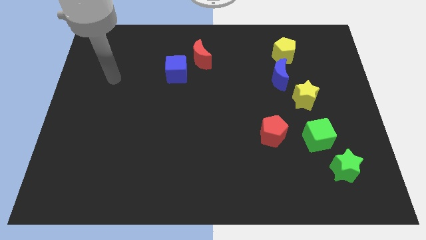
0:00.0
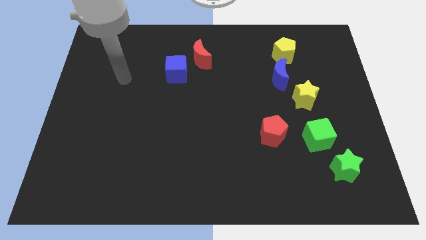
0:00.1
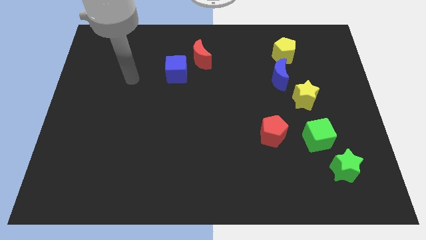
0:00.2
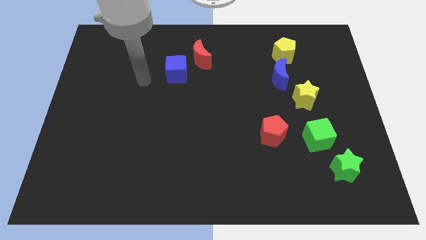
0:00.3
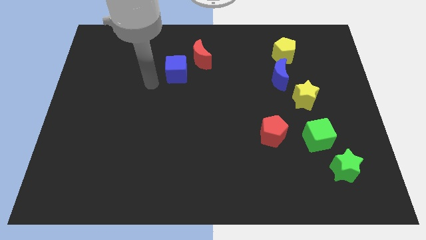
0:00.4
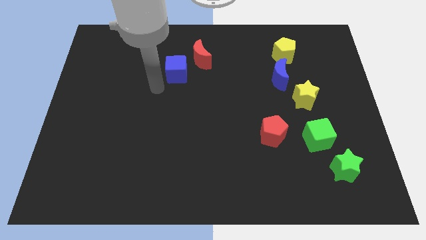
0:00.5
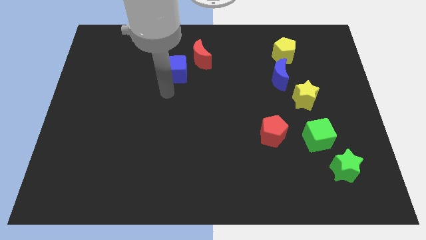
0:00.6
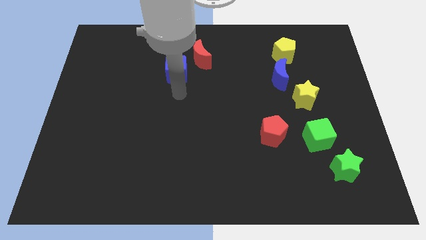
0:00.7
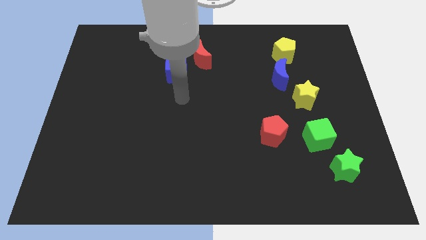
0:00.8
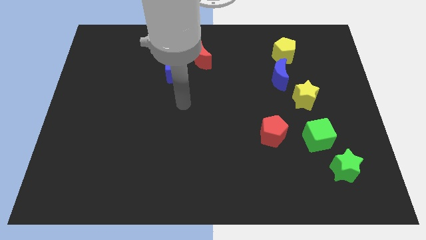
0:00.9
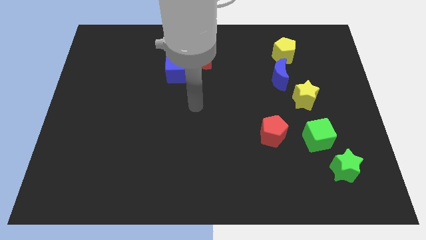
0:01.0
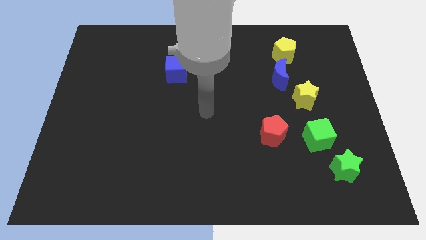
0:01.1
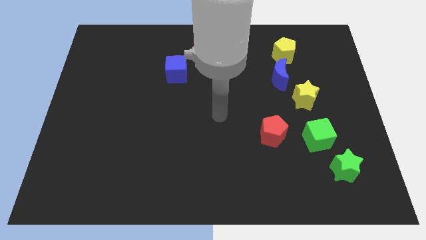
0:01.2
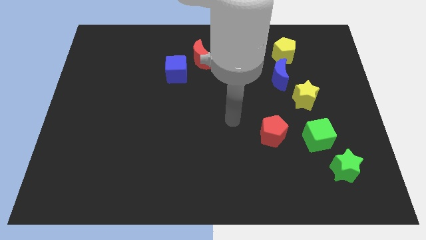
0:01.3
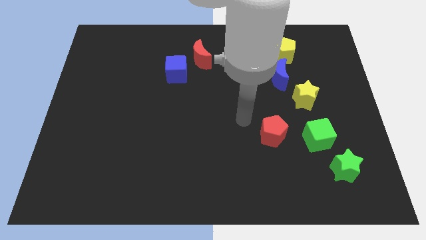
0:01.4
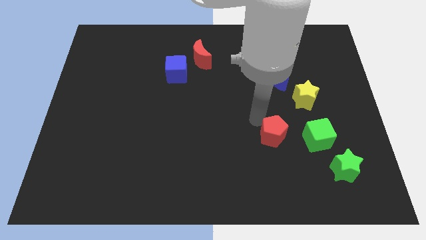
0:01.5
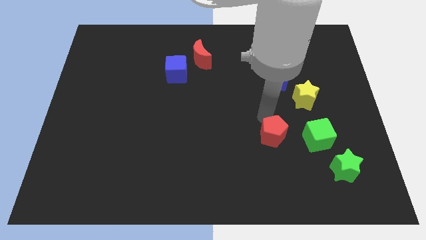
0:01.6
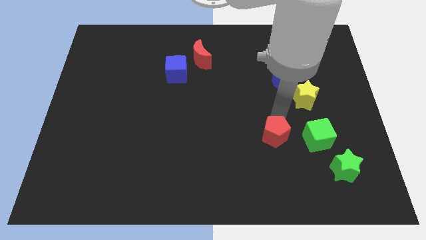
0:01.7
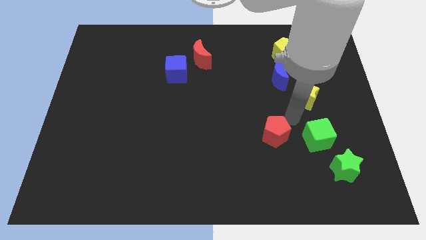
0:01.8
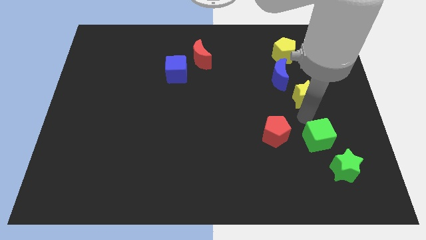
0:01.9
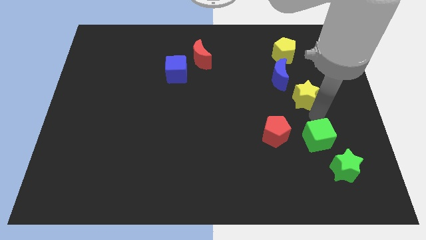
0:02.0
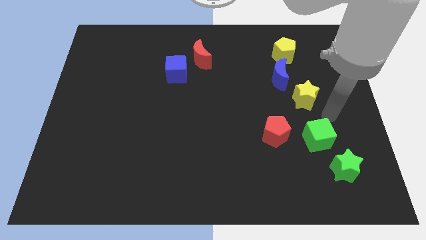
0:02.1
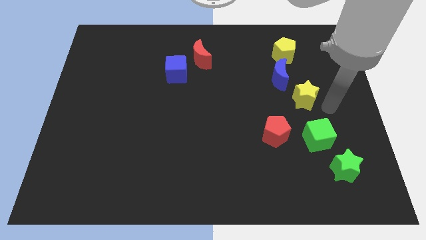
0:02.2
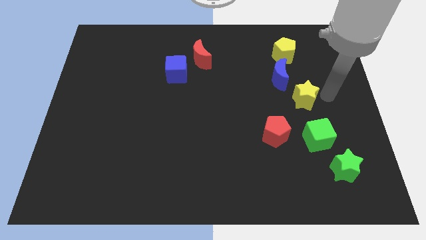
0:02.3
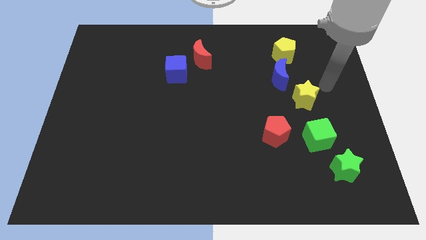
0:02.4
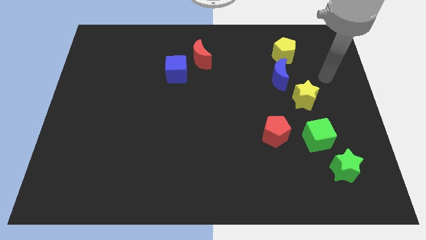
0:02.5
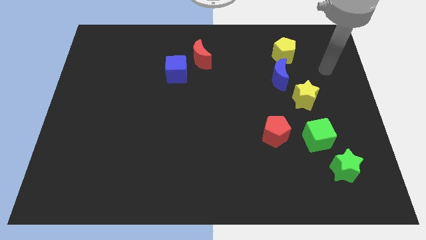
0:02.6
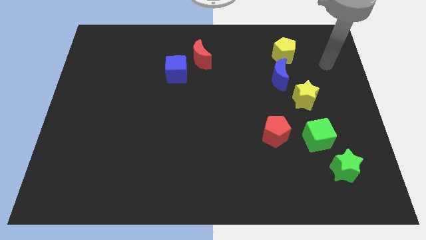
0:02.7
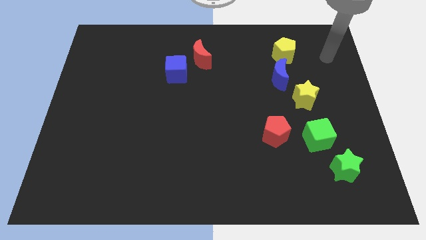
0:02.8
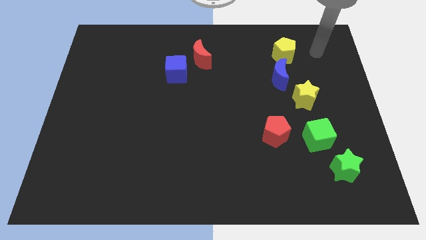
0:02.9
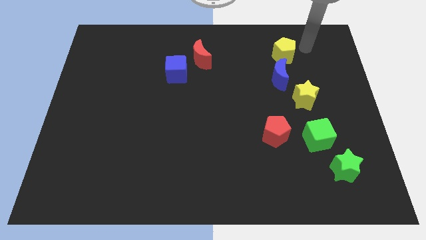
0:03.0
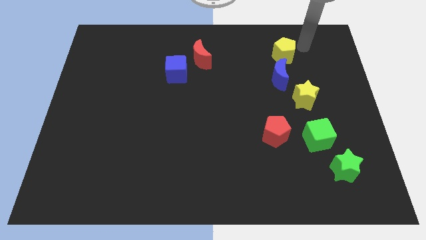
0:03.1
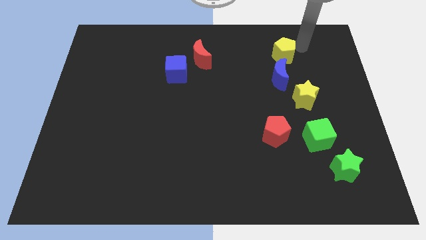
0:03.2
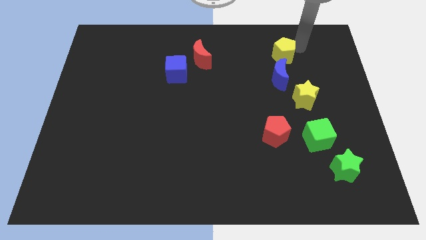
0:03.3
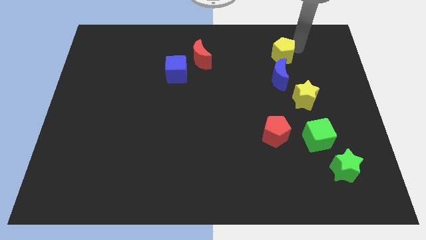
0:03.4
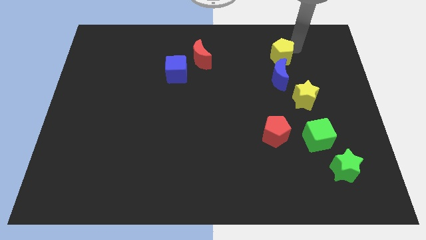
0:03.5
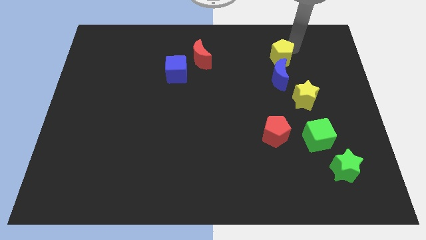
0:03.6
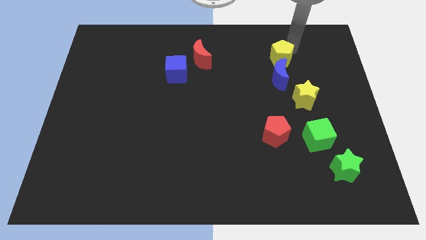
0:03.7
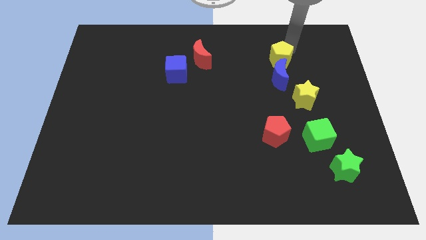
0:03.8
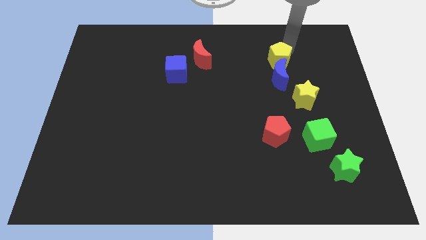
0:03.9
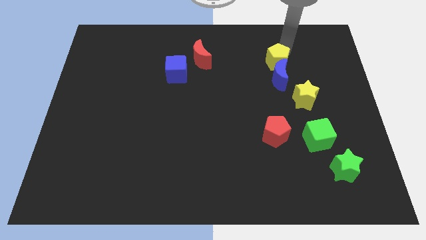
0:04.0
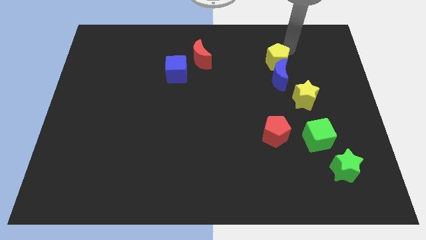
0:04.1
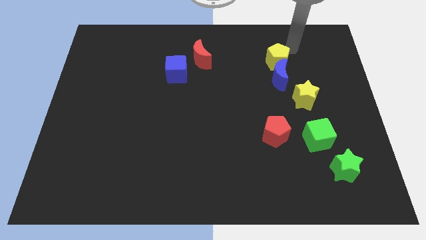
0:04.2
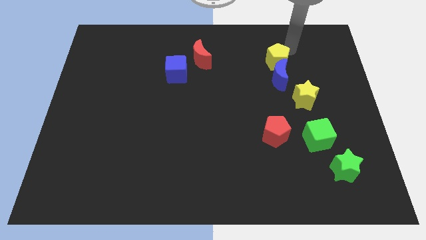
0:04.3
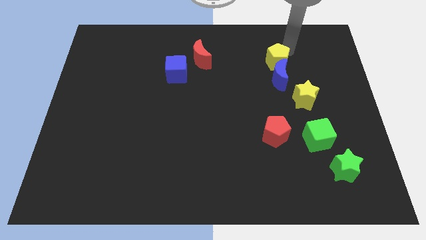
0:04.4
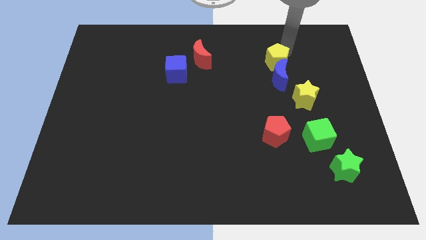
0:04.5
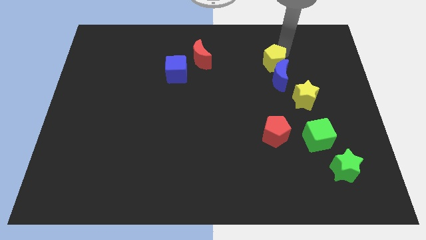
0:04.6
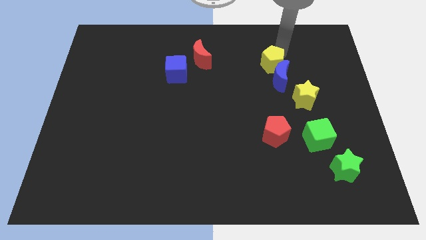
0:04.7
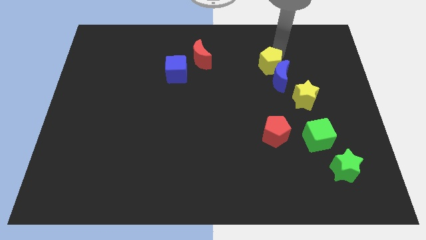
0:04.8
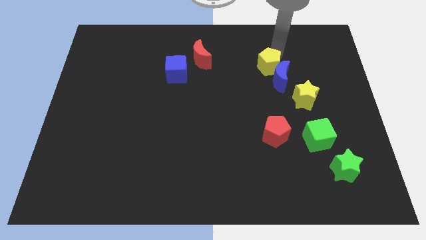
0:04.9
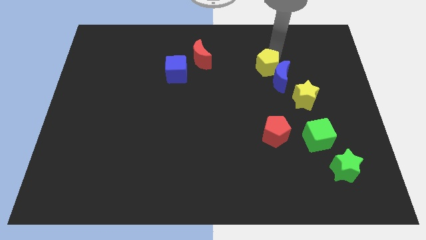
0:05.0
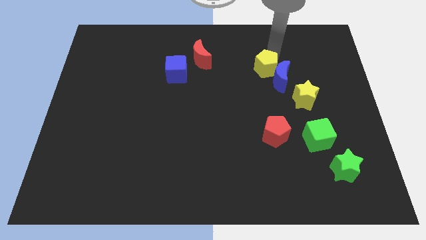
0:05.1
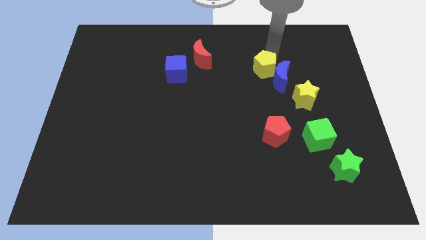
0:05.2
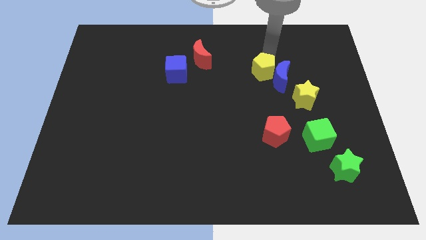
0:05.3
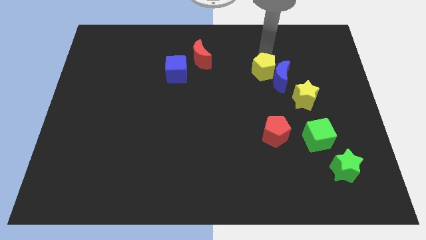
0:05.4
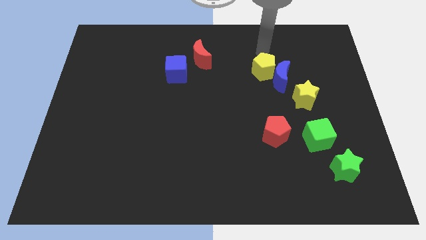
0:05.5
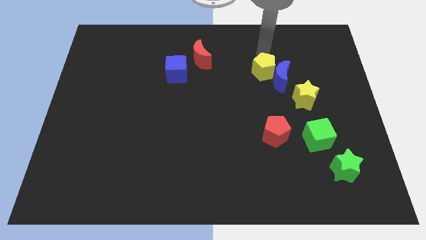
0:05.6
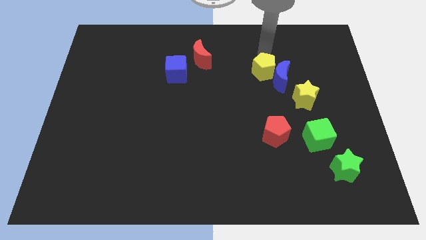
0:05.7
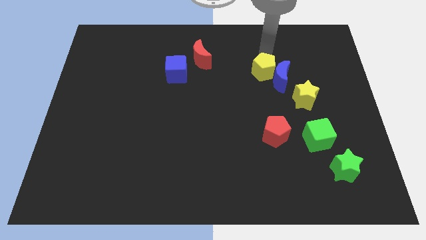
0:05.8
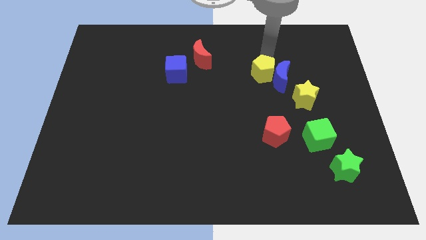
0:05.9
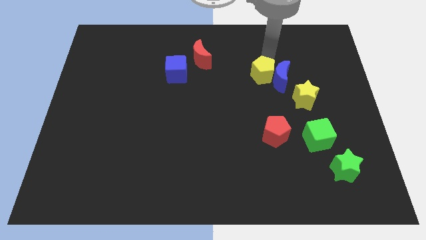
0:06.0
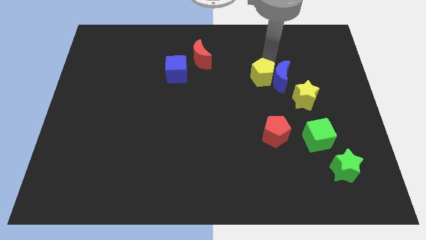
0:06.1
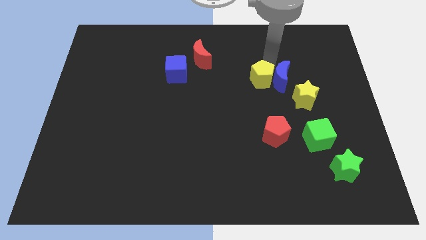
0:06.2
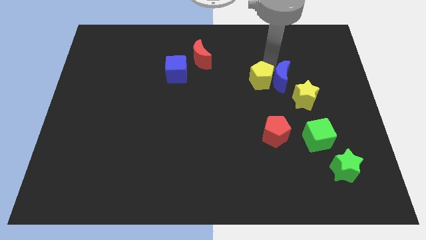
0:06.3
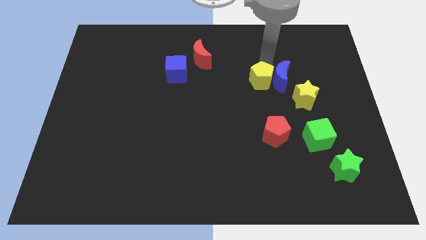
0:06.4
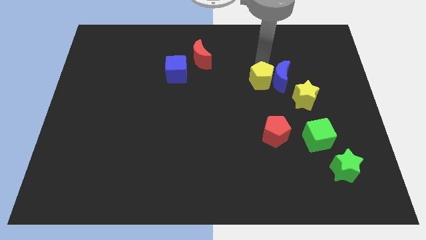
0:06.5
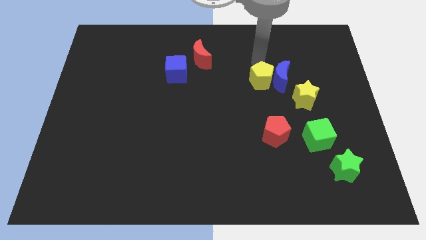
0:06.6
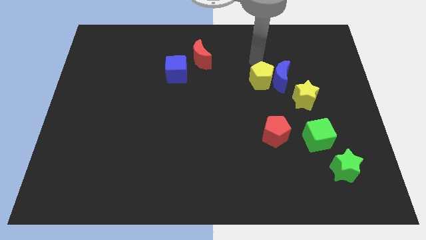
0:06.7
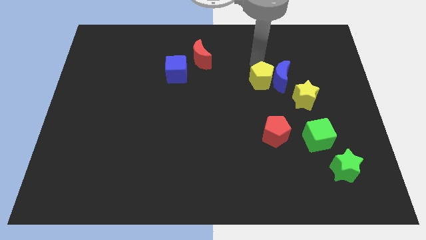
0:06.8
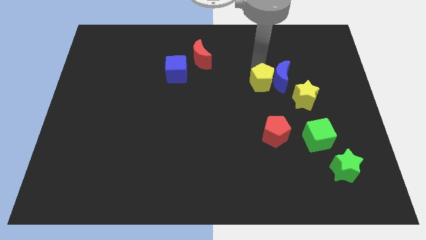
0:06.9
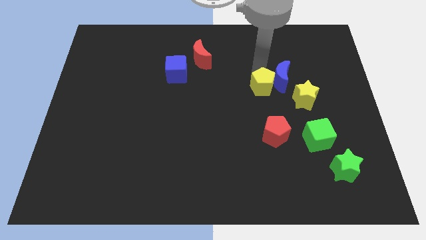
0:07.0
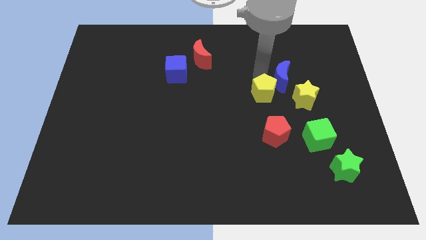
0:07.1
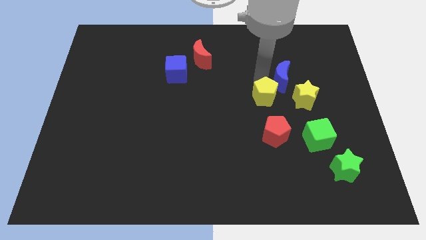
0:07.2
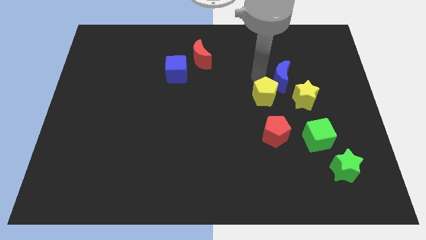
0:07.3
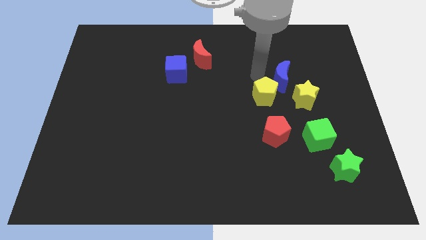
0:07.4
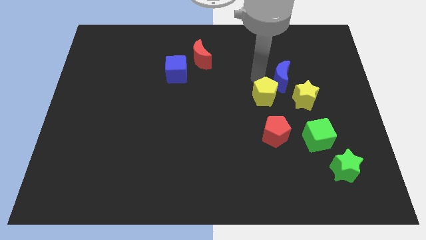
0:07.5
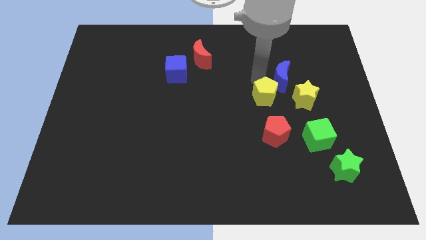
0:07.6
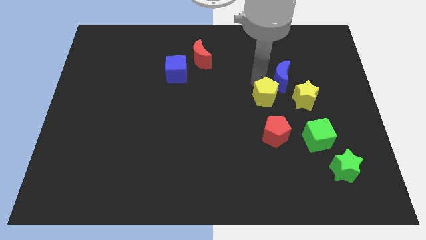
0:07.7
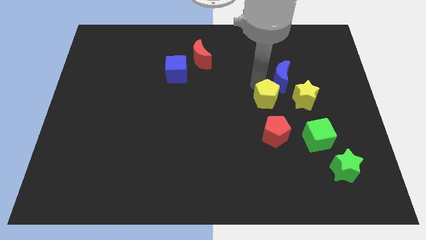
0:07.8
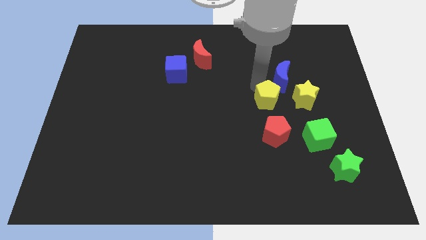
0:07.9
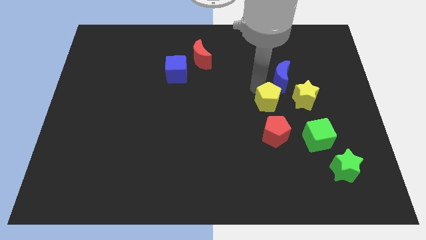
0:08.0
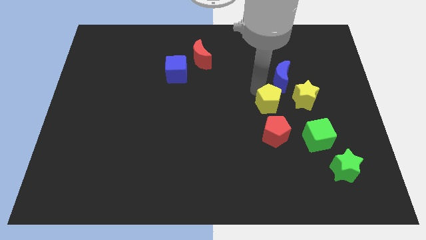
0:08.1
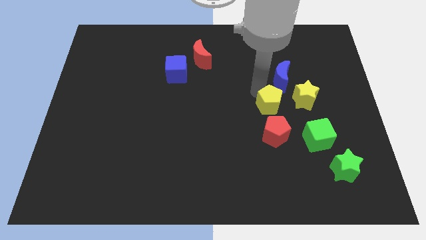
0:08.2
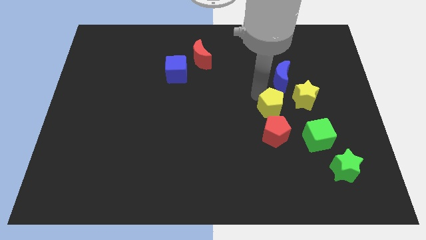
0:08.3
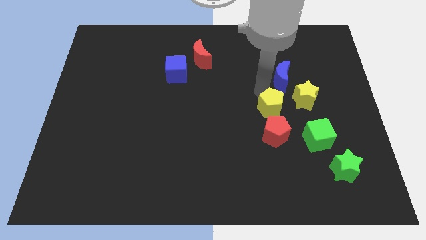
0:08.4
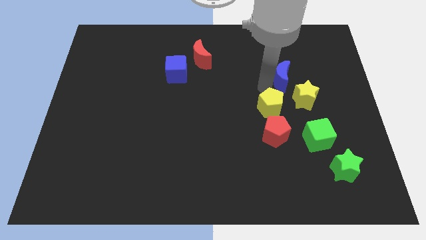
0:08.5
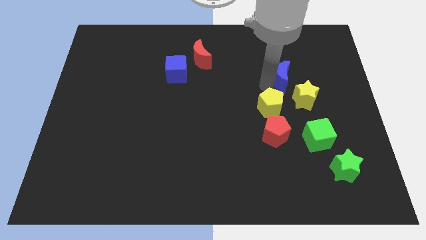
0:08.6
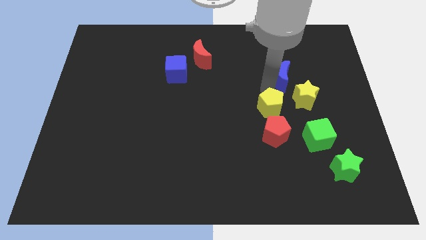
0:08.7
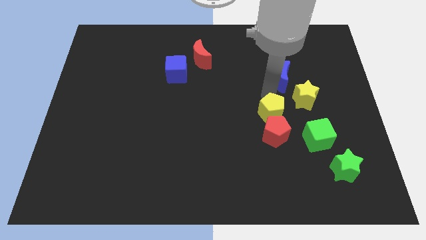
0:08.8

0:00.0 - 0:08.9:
move the yellow pentagon next to the red pentagon
